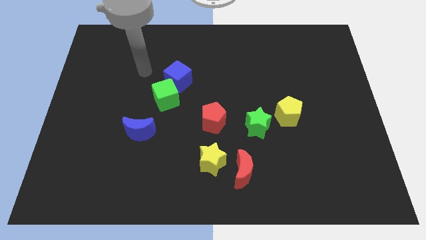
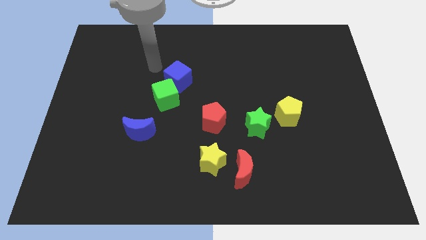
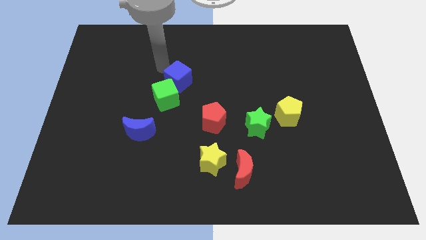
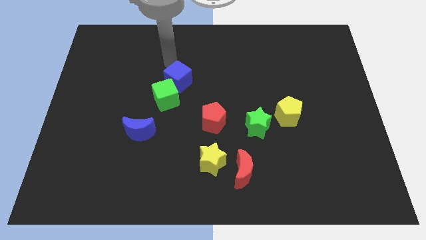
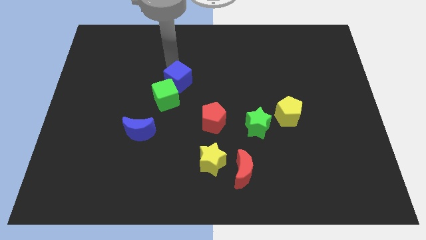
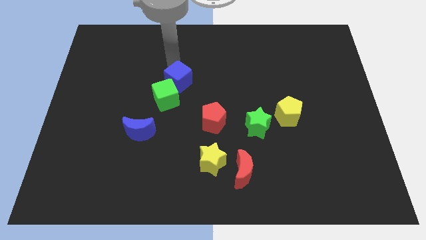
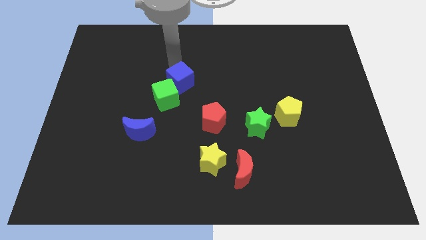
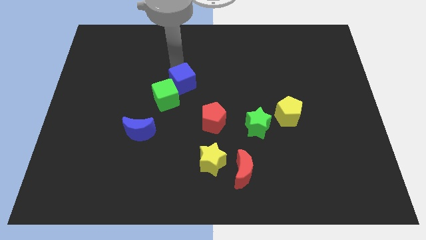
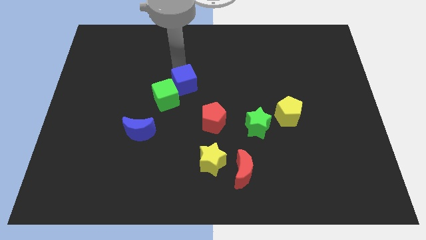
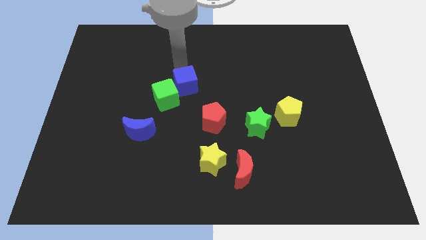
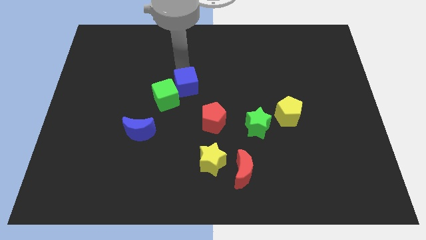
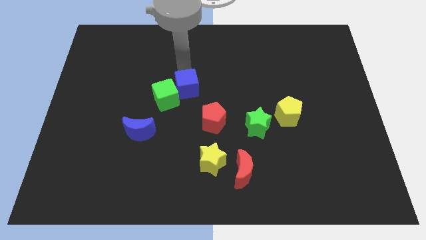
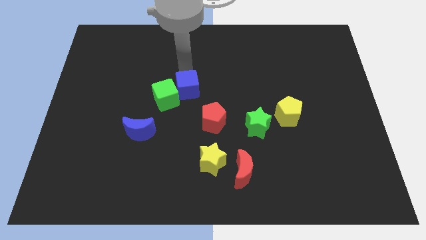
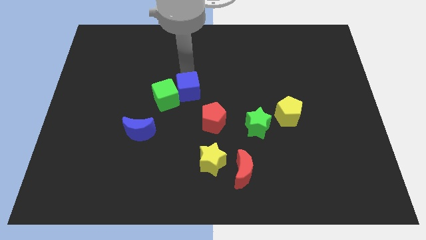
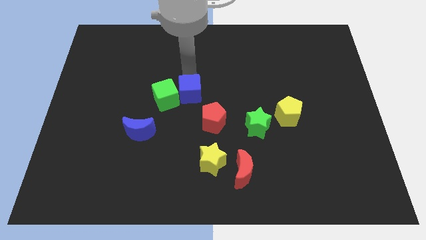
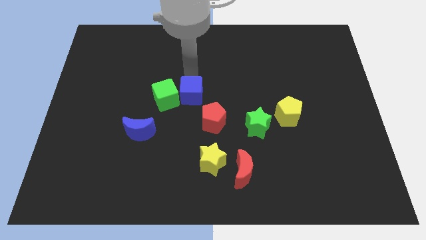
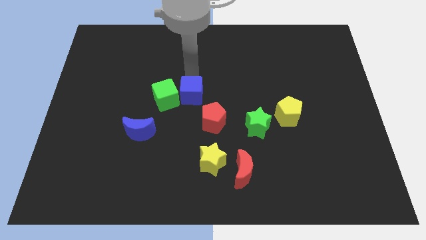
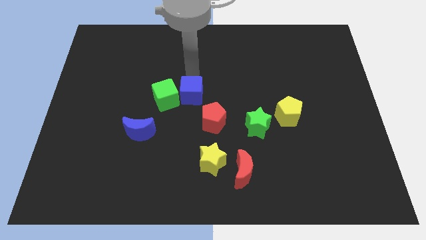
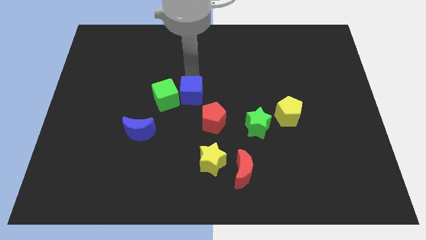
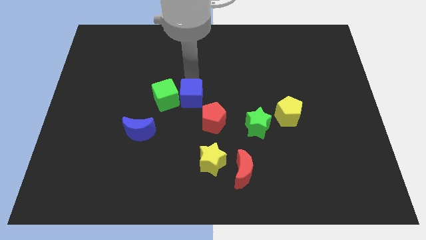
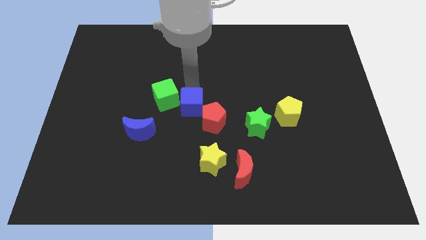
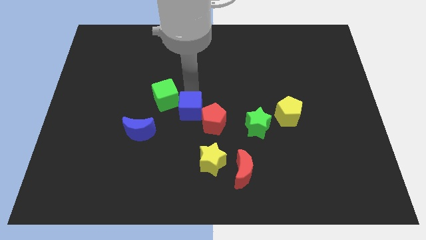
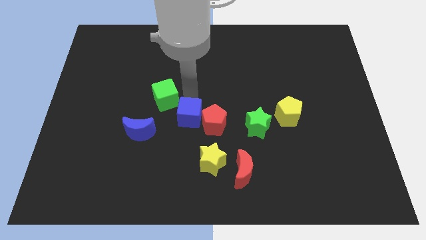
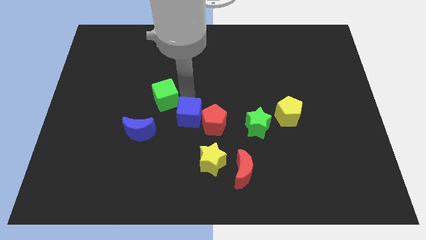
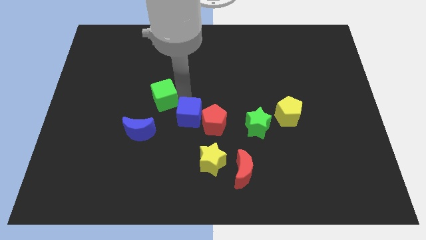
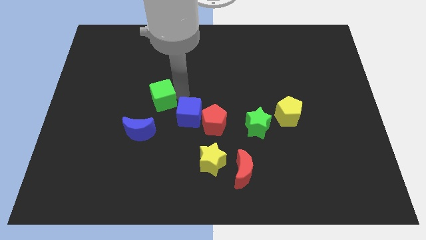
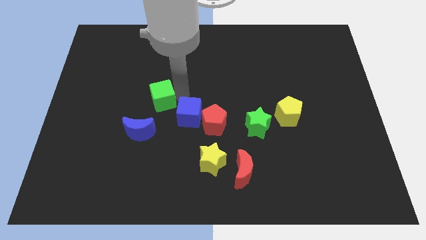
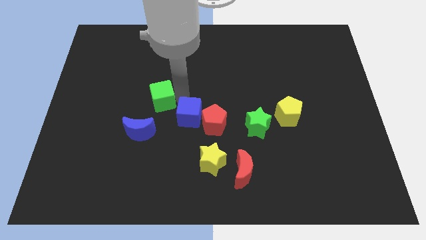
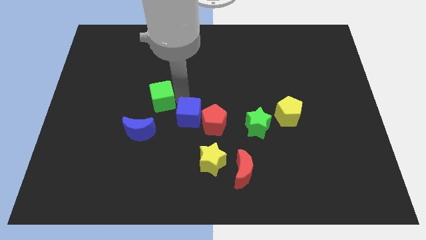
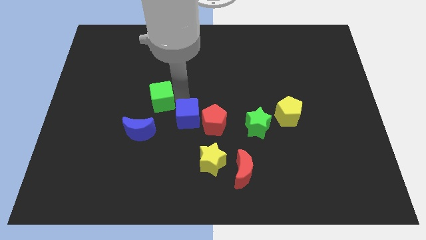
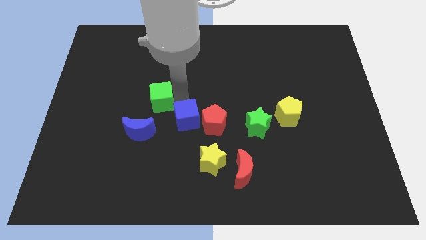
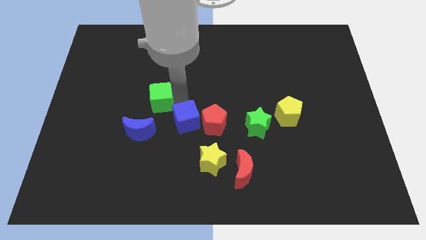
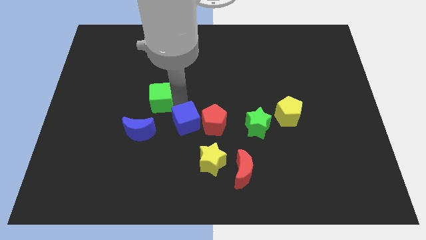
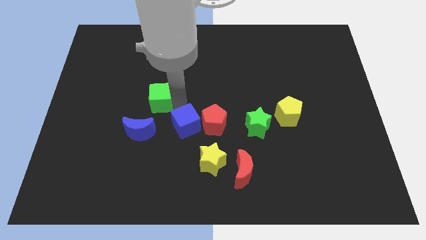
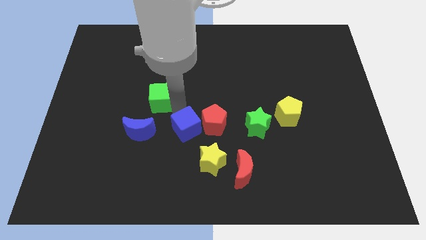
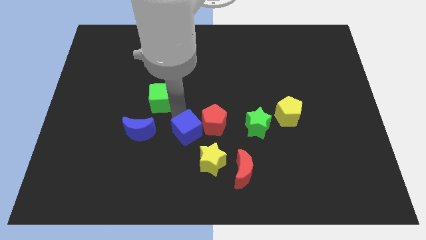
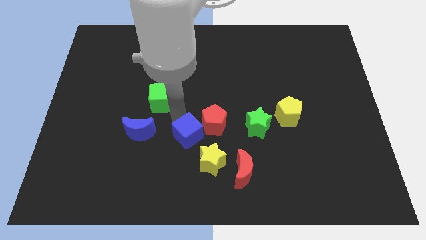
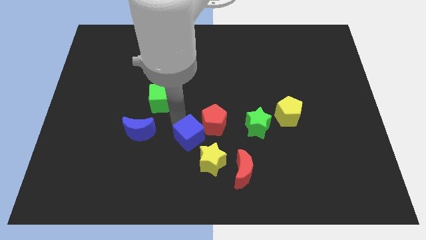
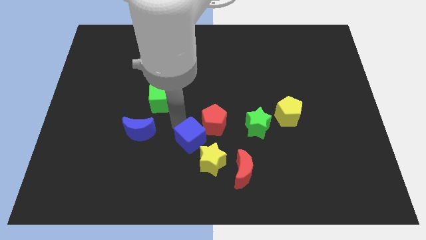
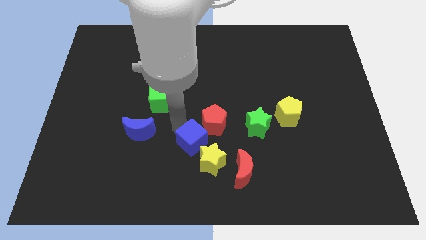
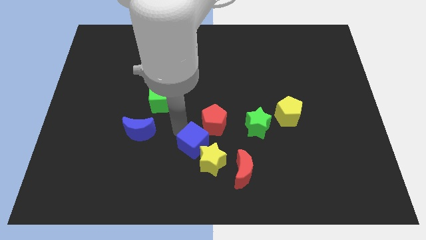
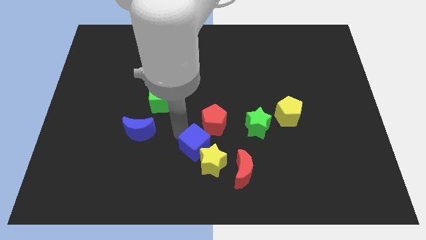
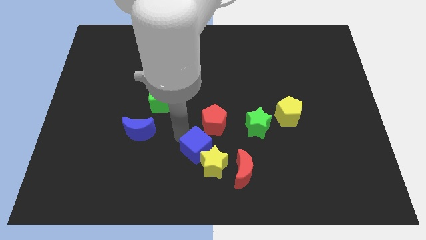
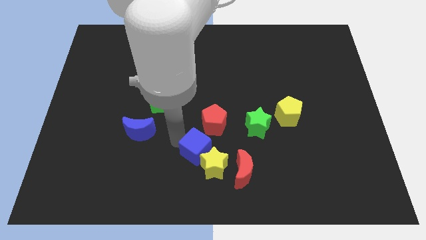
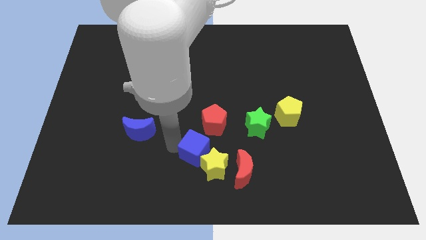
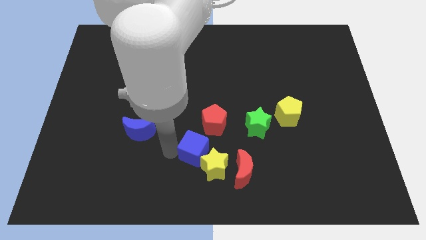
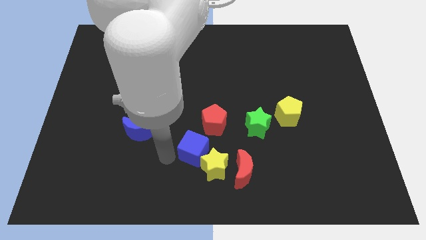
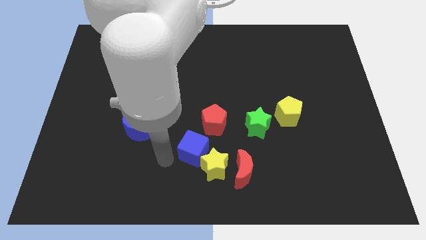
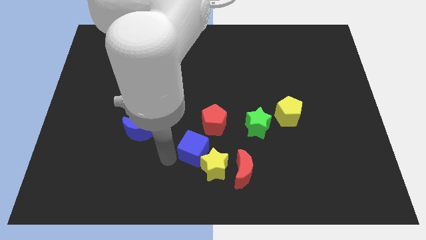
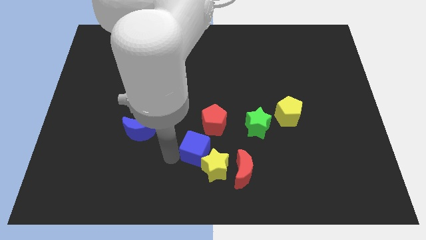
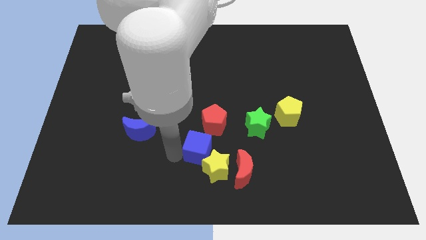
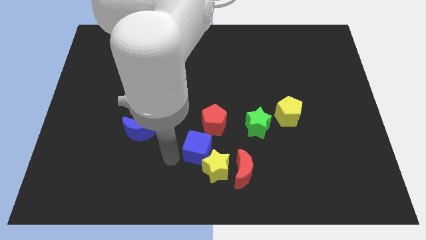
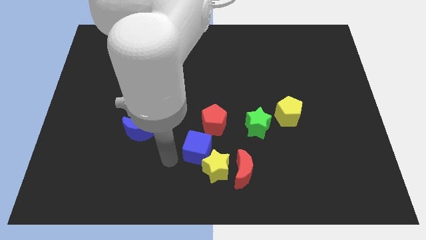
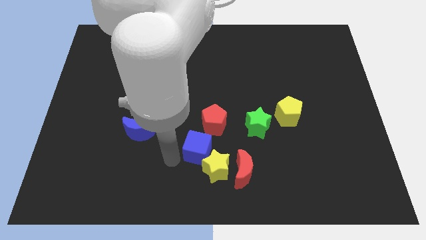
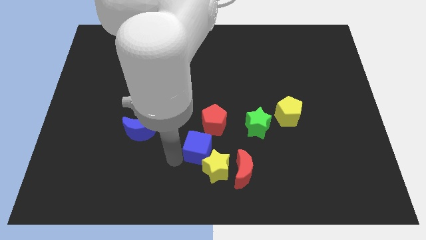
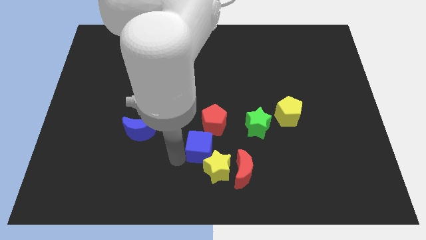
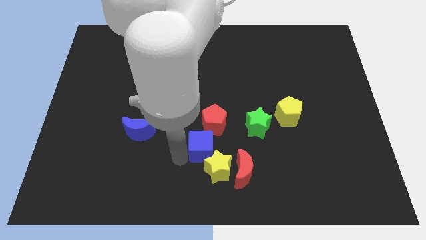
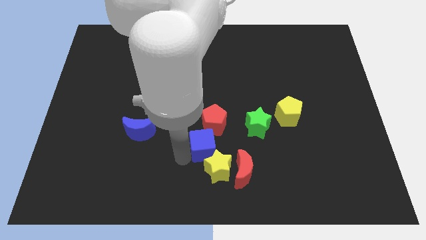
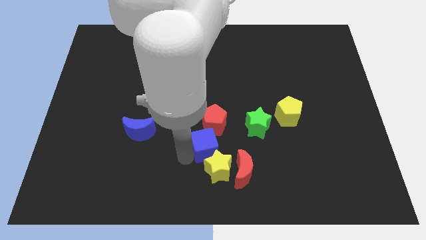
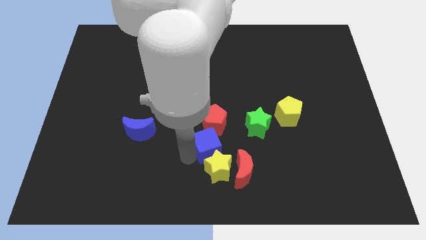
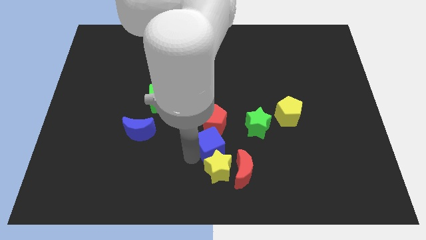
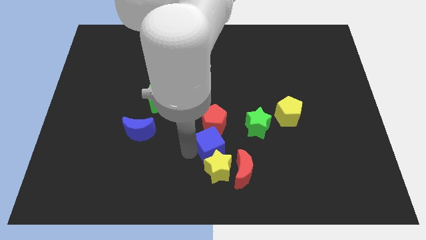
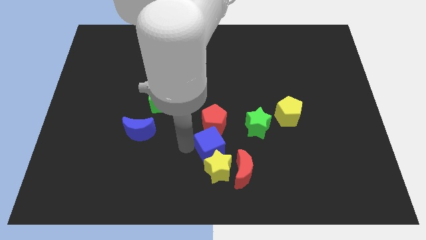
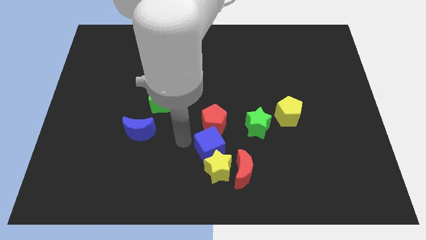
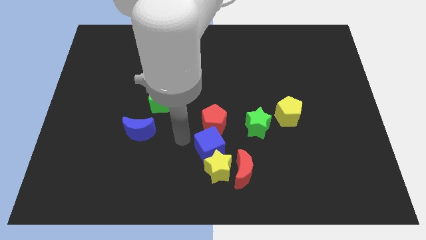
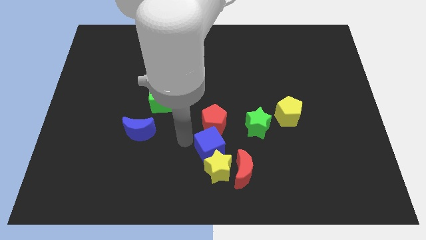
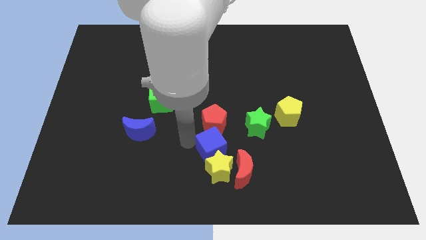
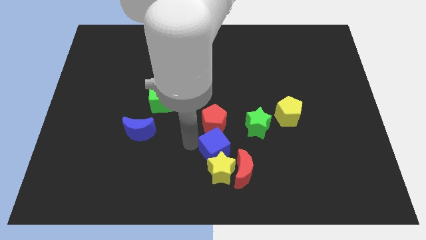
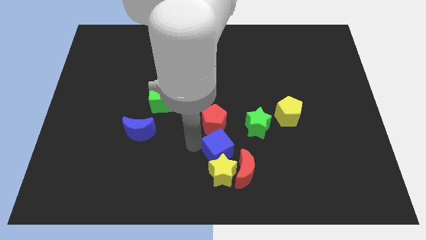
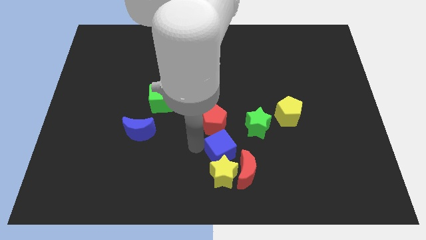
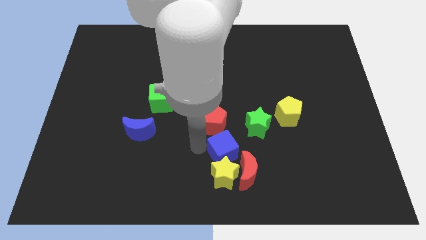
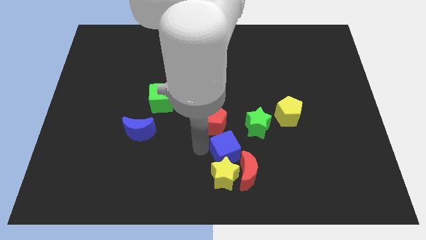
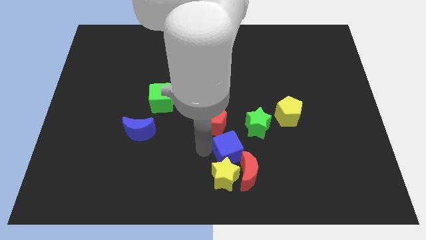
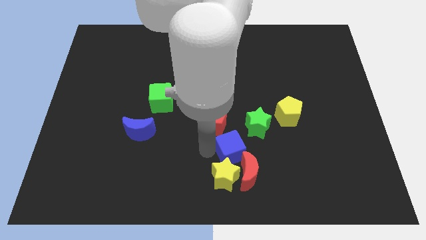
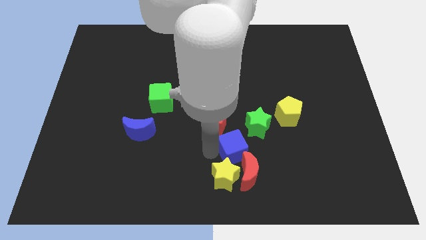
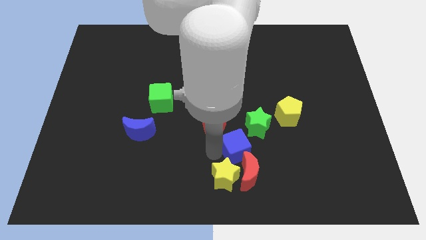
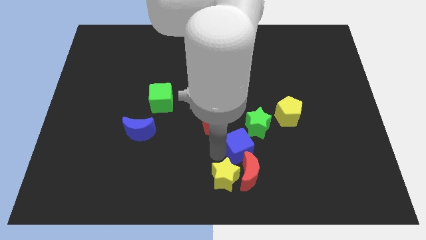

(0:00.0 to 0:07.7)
push the blue cube close to the red moon
